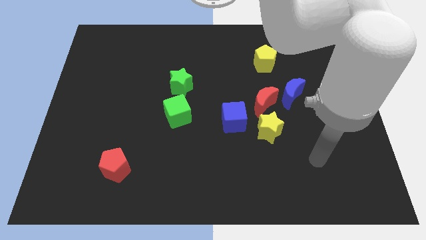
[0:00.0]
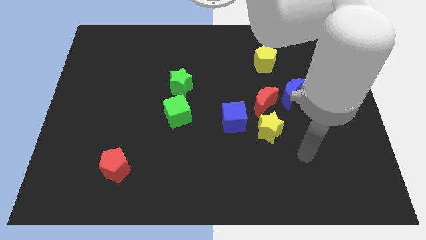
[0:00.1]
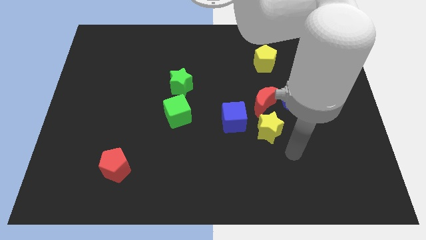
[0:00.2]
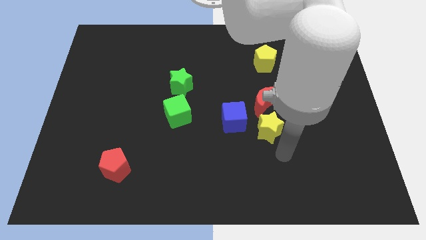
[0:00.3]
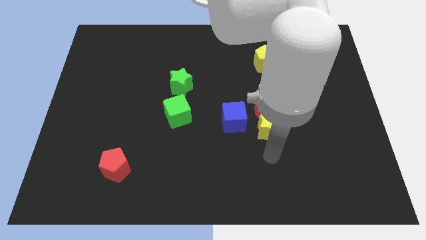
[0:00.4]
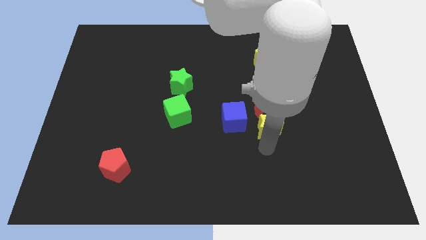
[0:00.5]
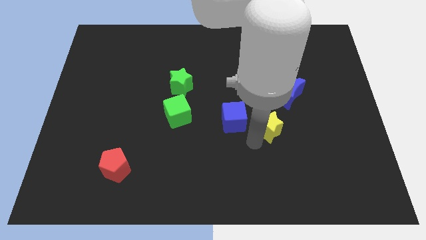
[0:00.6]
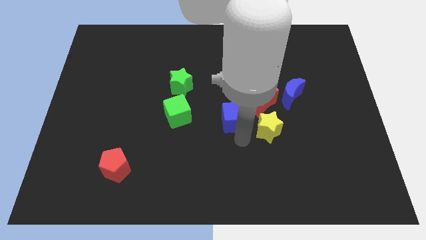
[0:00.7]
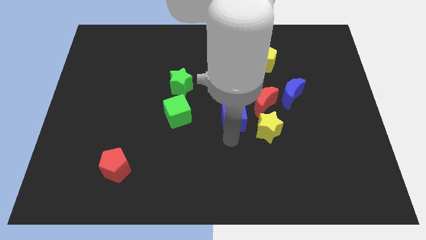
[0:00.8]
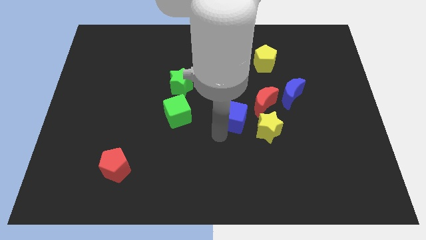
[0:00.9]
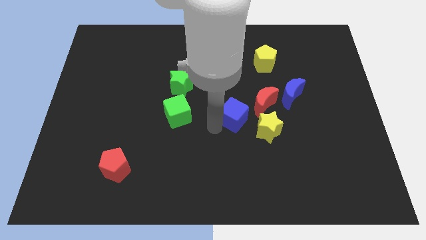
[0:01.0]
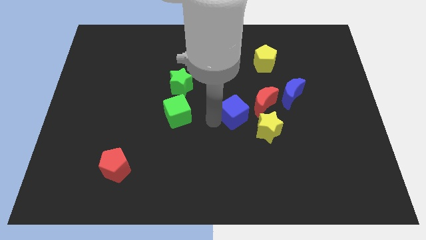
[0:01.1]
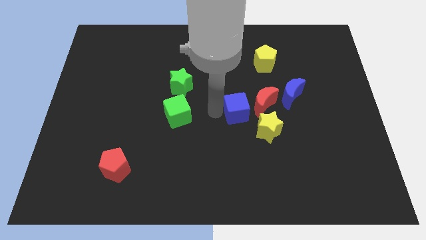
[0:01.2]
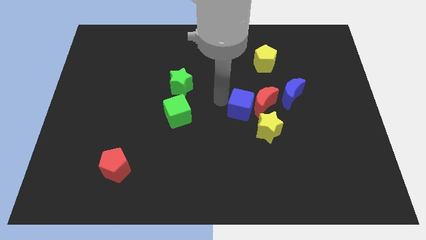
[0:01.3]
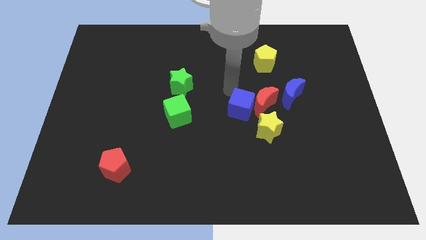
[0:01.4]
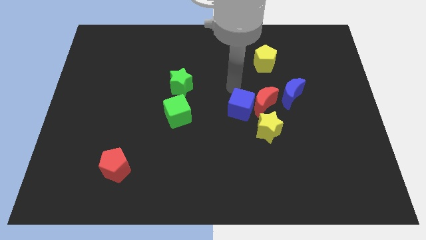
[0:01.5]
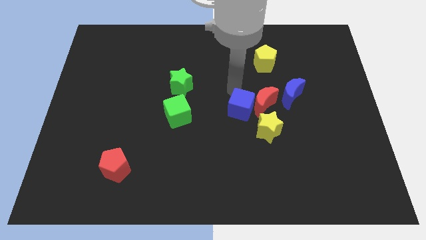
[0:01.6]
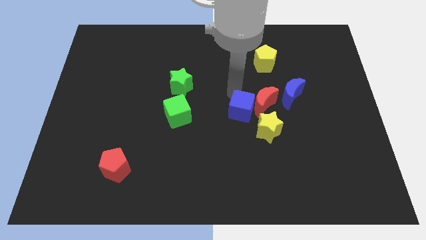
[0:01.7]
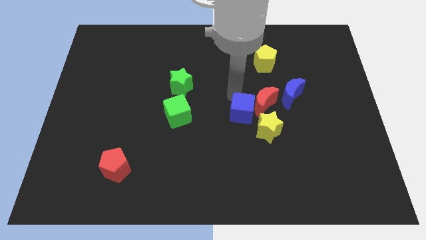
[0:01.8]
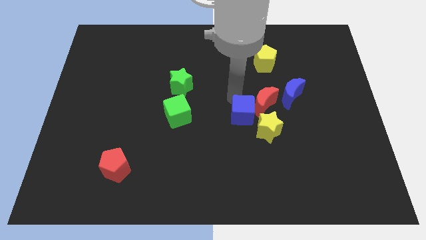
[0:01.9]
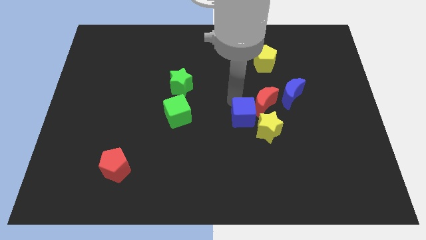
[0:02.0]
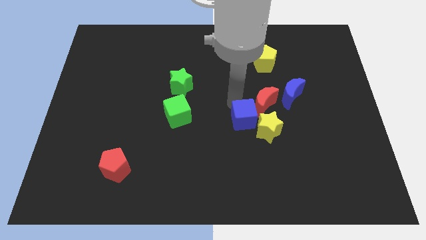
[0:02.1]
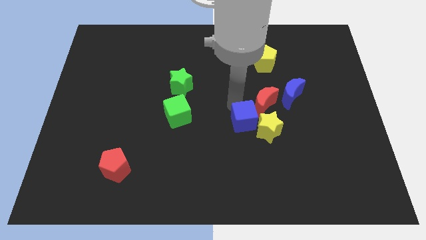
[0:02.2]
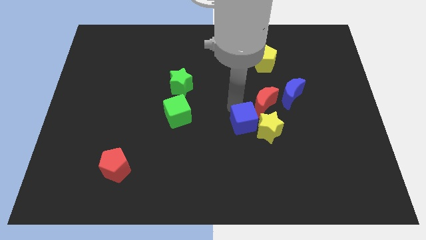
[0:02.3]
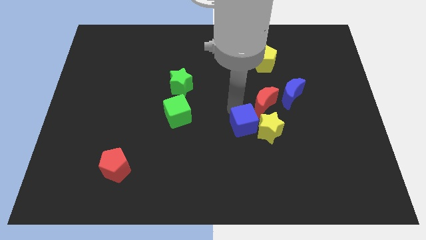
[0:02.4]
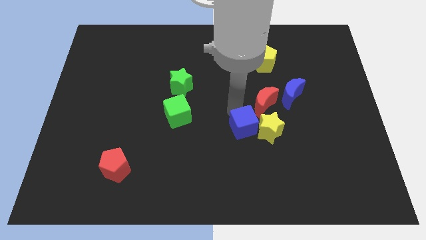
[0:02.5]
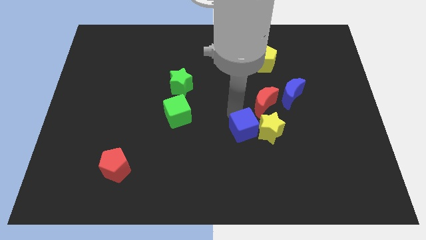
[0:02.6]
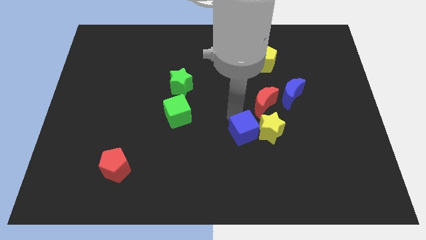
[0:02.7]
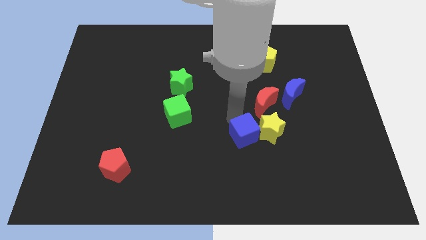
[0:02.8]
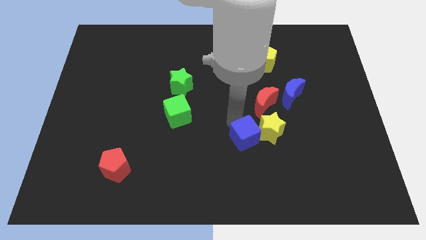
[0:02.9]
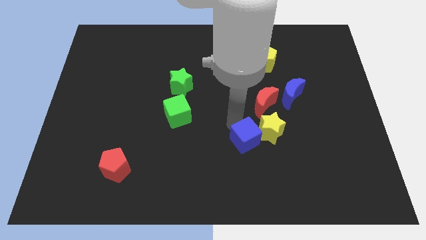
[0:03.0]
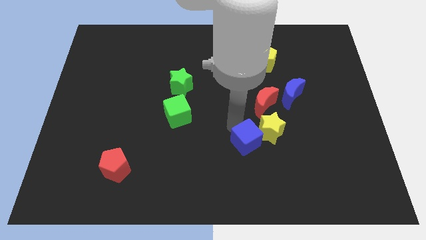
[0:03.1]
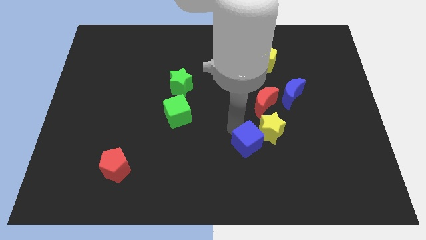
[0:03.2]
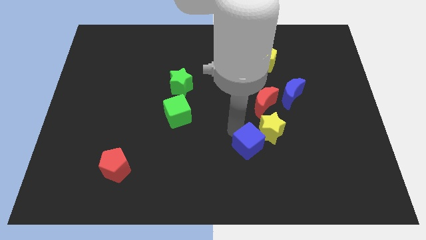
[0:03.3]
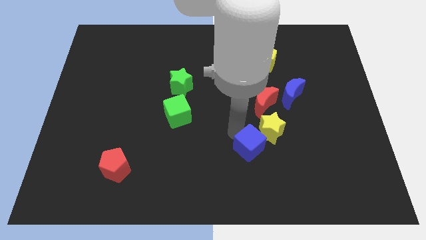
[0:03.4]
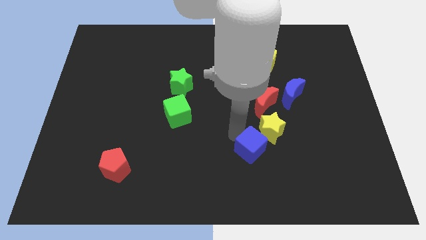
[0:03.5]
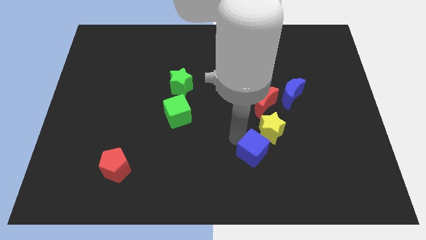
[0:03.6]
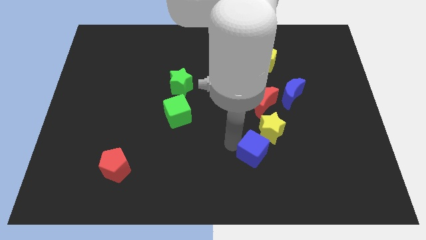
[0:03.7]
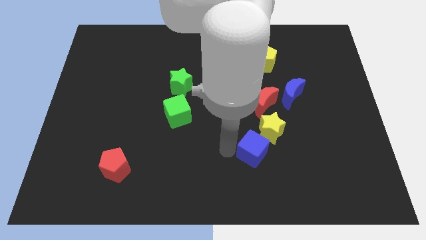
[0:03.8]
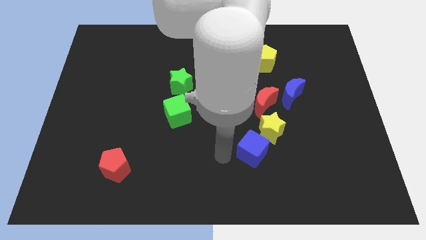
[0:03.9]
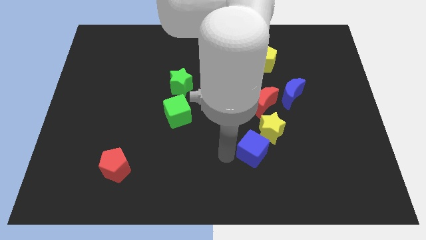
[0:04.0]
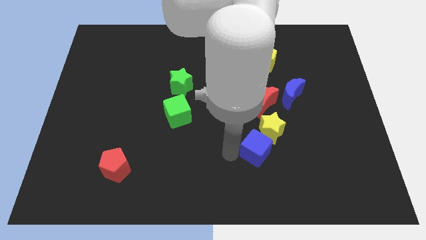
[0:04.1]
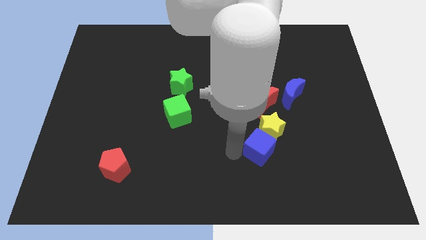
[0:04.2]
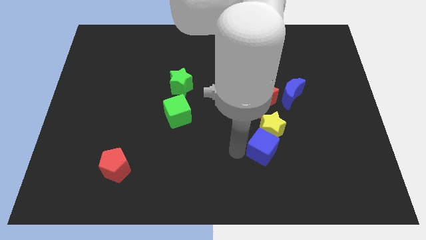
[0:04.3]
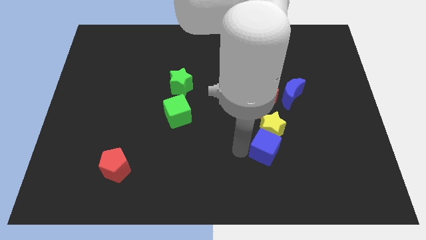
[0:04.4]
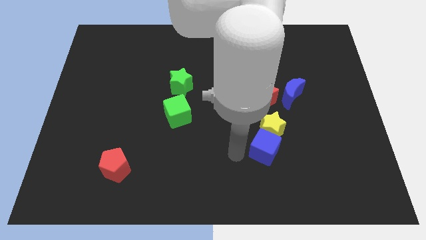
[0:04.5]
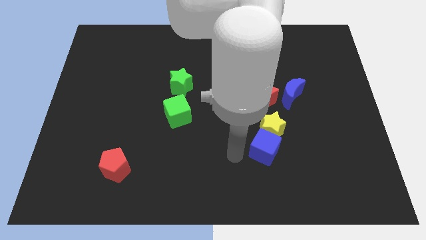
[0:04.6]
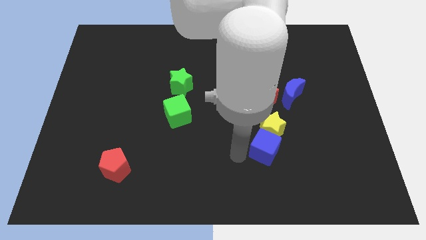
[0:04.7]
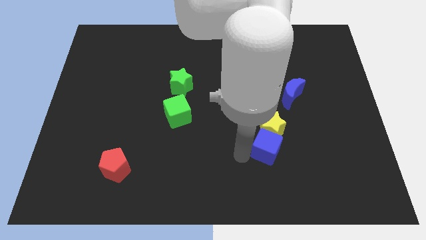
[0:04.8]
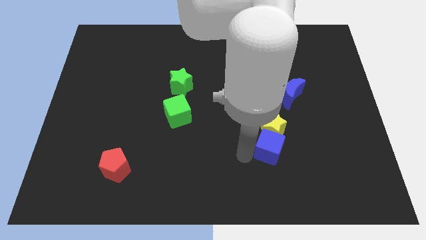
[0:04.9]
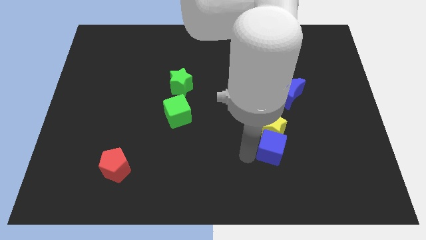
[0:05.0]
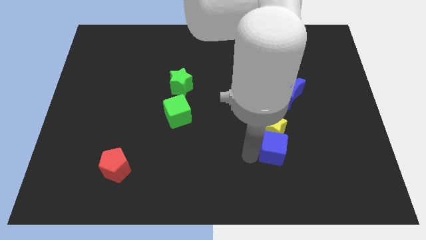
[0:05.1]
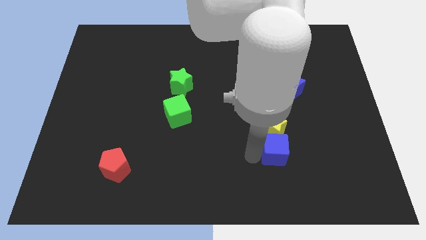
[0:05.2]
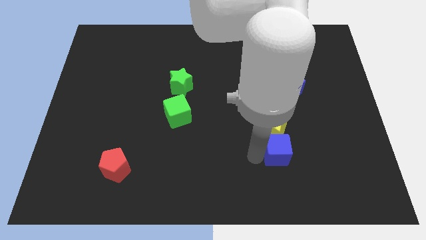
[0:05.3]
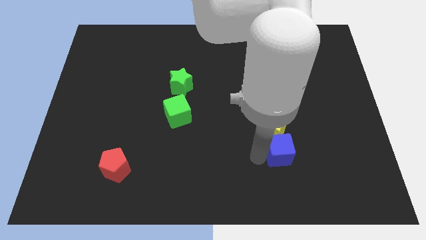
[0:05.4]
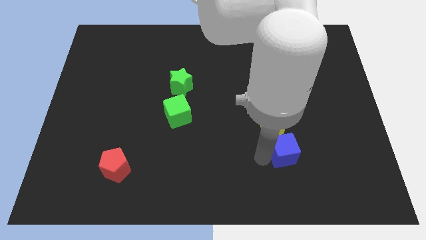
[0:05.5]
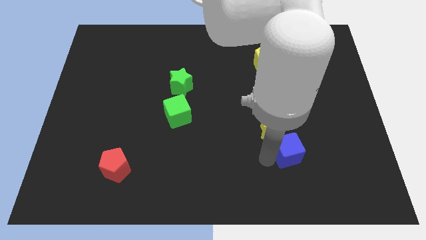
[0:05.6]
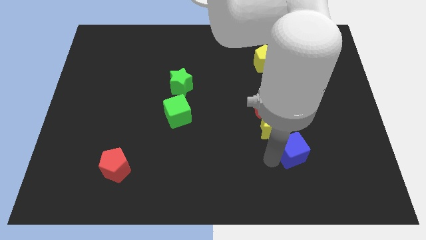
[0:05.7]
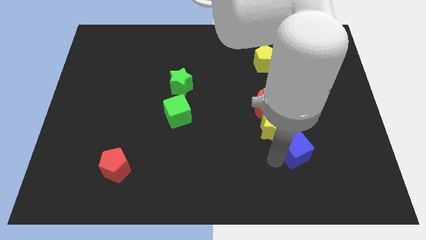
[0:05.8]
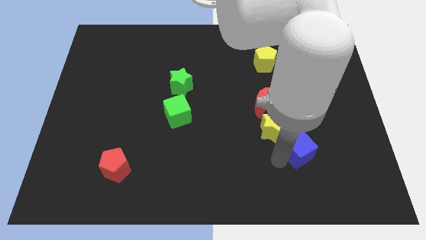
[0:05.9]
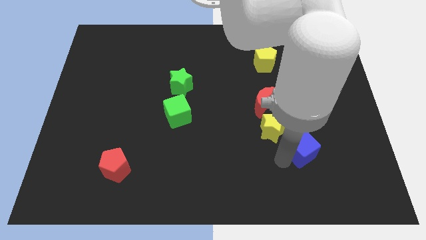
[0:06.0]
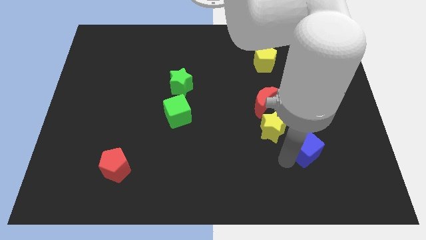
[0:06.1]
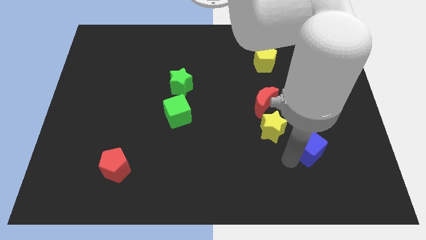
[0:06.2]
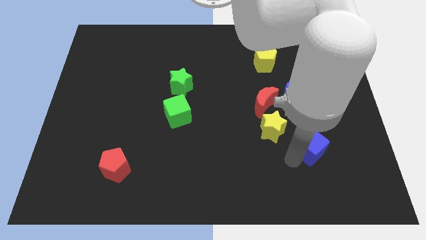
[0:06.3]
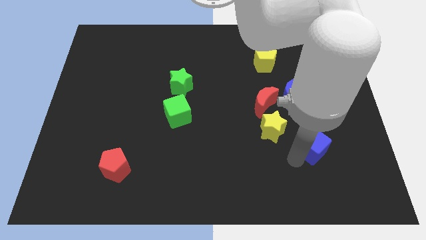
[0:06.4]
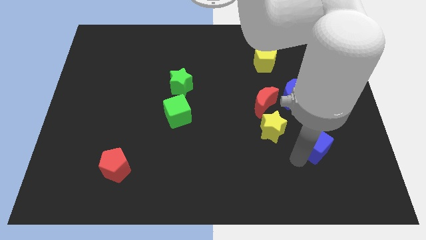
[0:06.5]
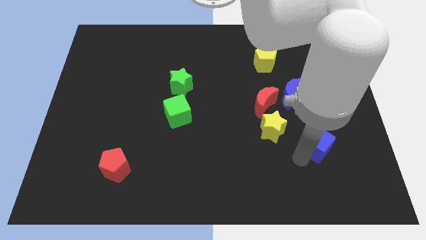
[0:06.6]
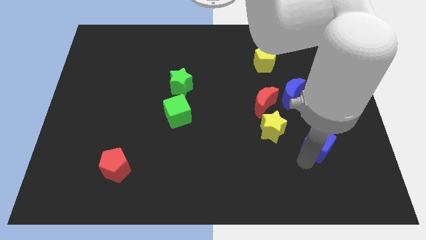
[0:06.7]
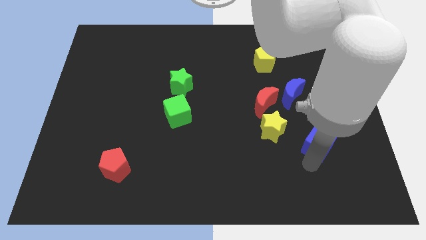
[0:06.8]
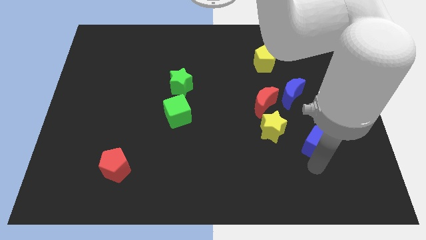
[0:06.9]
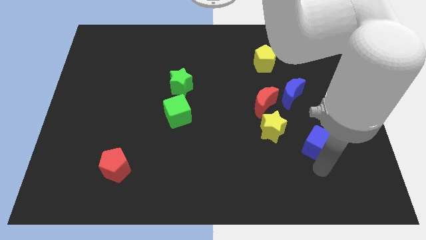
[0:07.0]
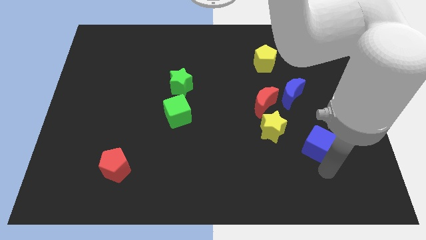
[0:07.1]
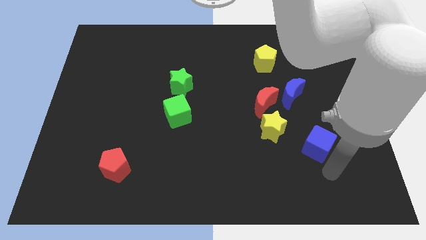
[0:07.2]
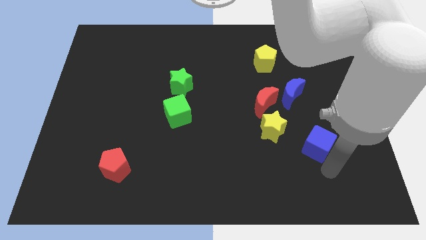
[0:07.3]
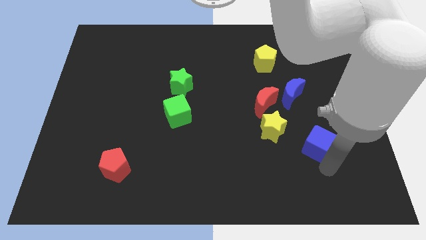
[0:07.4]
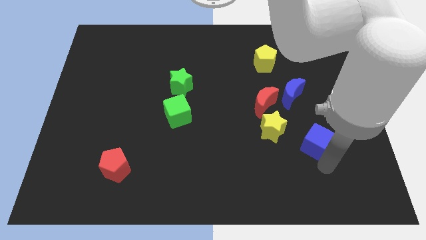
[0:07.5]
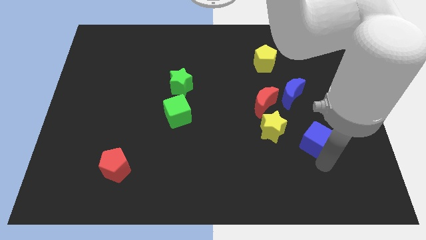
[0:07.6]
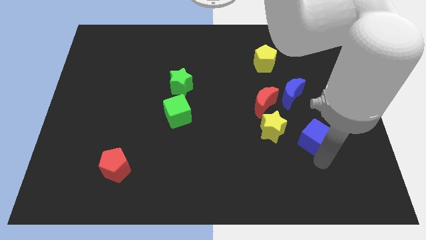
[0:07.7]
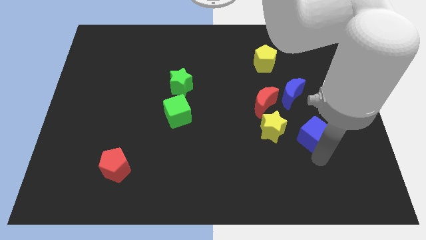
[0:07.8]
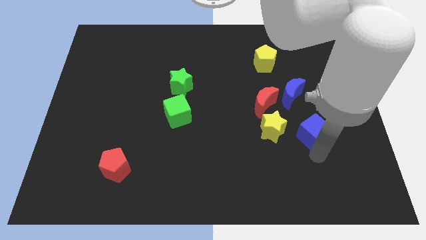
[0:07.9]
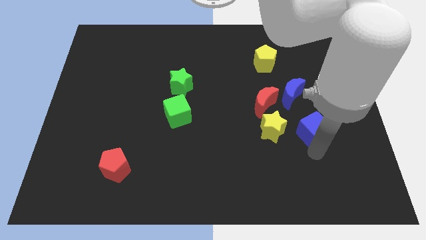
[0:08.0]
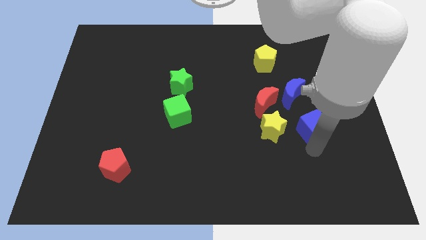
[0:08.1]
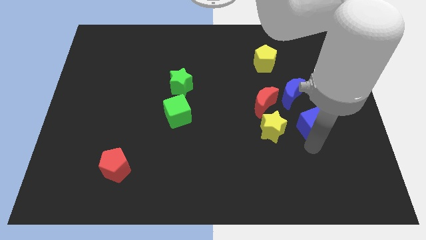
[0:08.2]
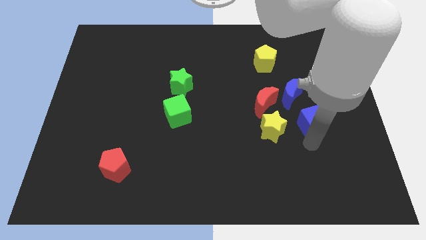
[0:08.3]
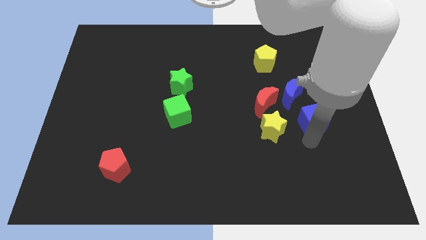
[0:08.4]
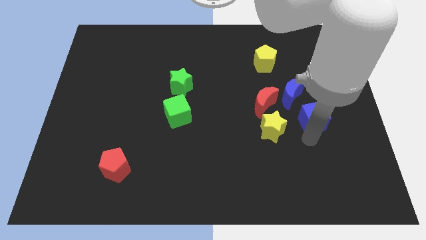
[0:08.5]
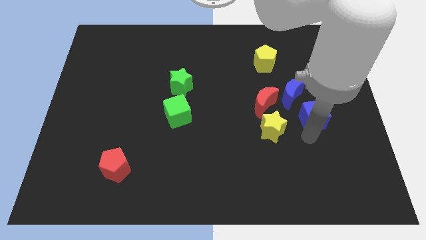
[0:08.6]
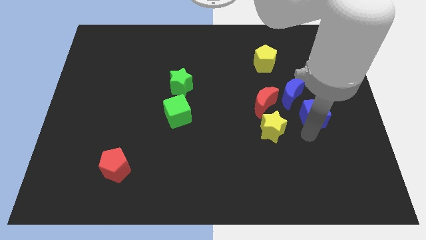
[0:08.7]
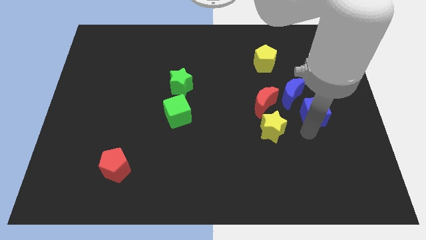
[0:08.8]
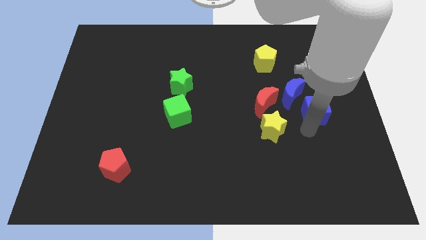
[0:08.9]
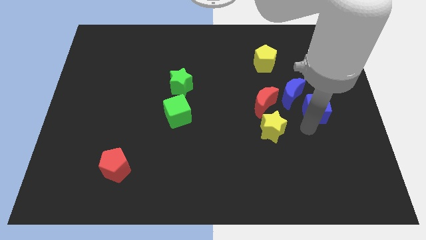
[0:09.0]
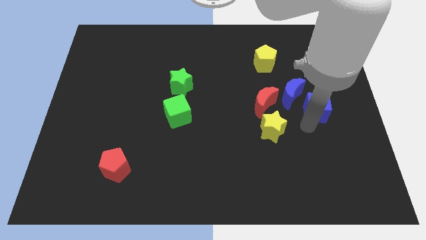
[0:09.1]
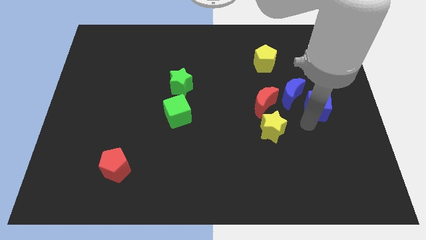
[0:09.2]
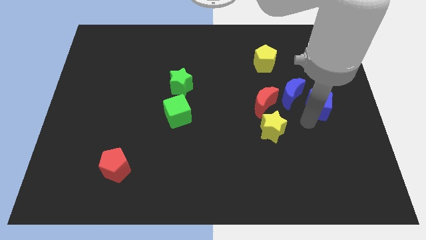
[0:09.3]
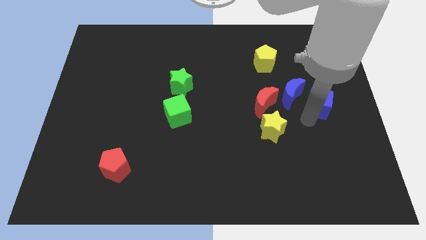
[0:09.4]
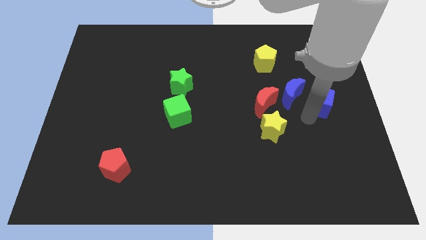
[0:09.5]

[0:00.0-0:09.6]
slide the blue cube to the center right
